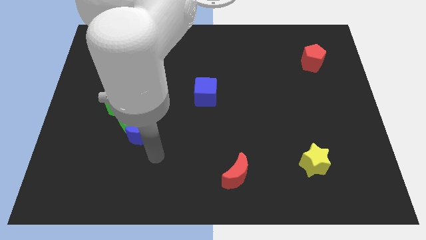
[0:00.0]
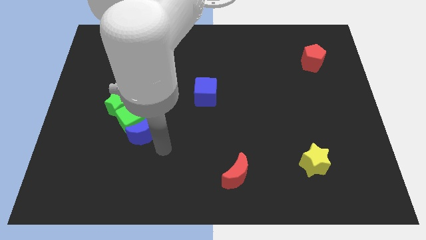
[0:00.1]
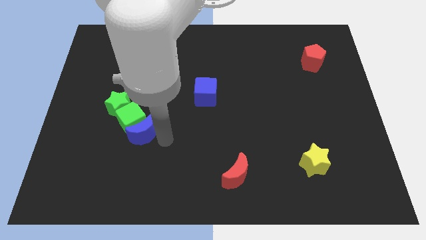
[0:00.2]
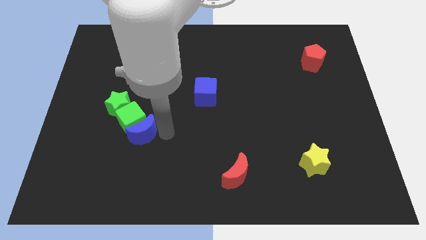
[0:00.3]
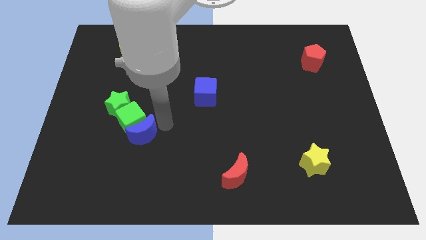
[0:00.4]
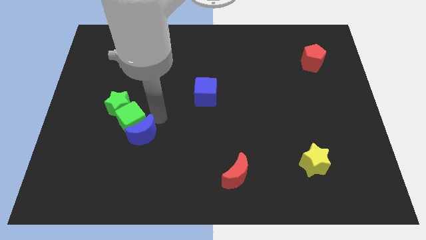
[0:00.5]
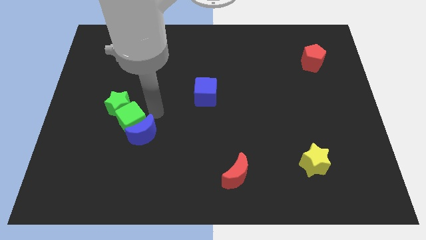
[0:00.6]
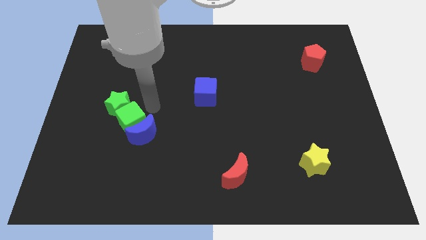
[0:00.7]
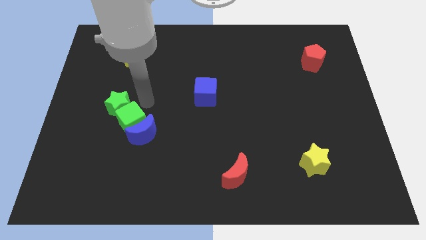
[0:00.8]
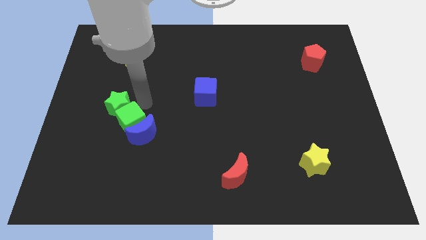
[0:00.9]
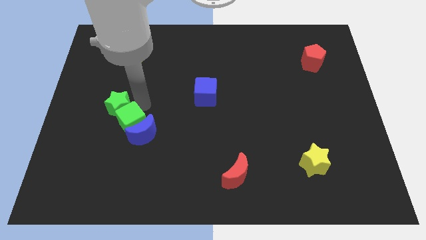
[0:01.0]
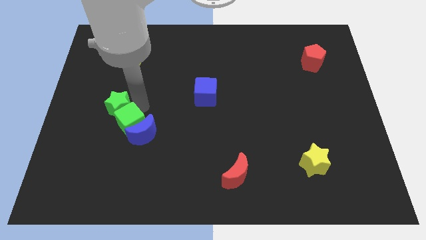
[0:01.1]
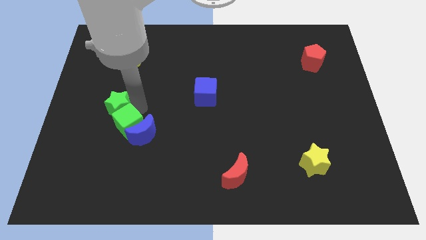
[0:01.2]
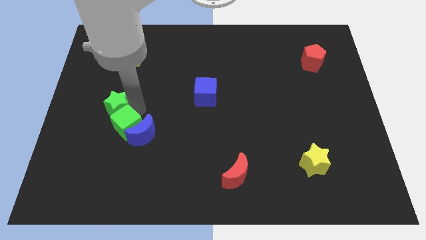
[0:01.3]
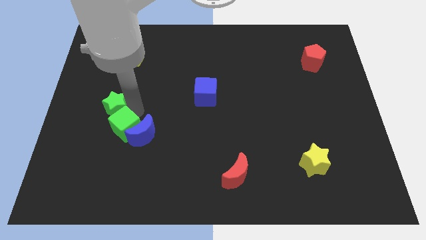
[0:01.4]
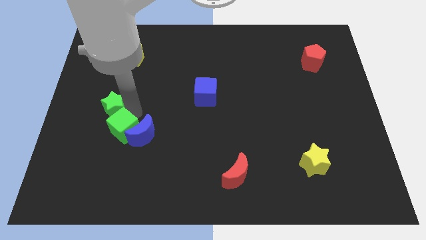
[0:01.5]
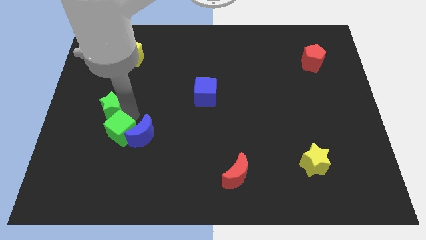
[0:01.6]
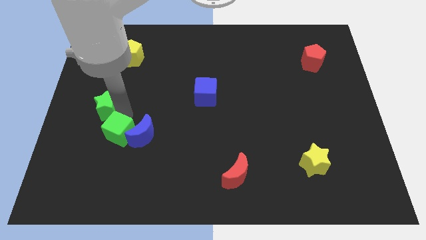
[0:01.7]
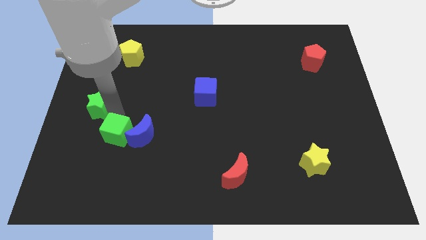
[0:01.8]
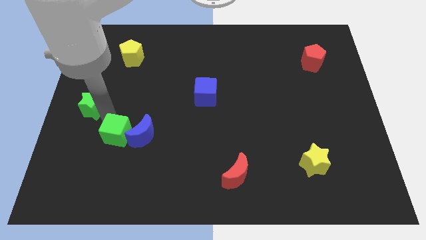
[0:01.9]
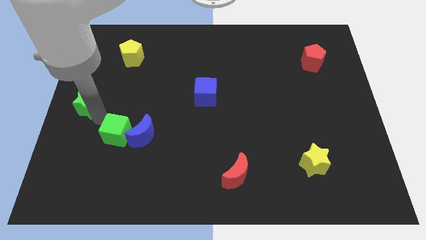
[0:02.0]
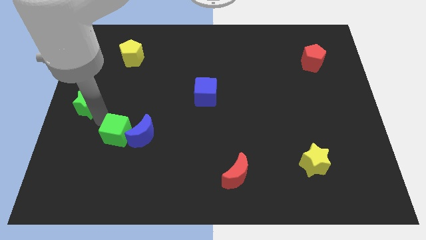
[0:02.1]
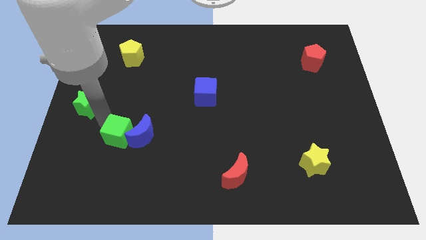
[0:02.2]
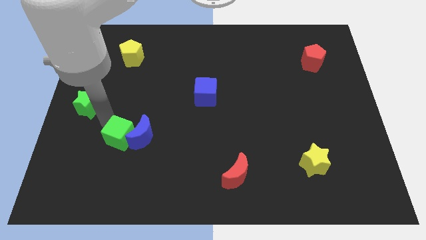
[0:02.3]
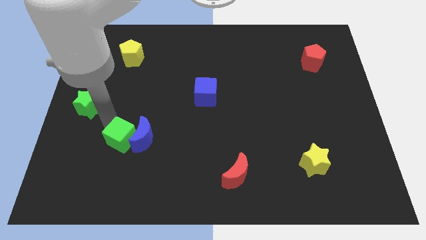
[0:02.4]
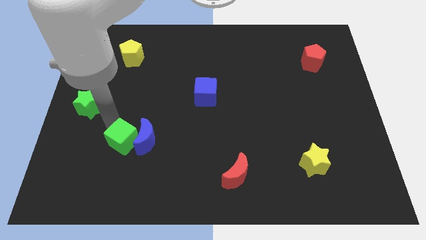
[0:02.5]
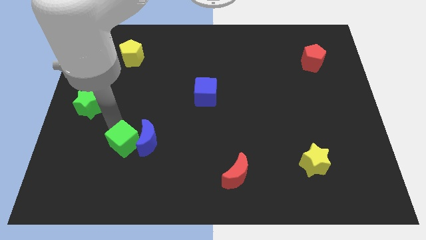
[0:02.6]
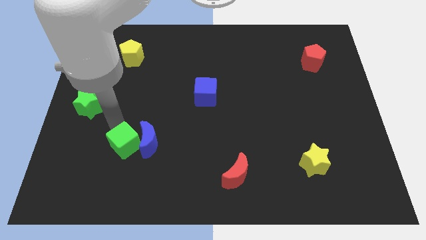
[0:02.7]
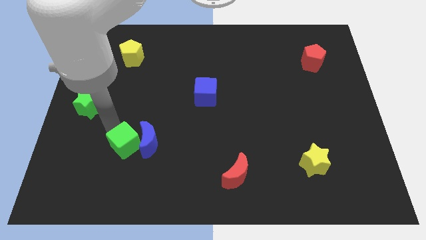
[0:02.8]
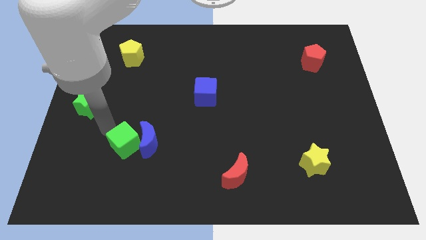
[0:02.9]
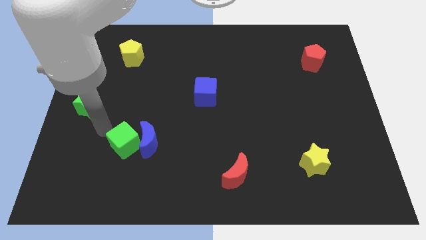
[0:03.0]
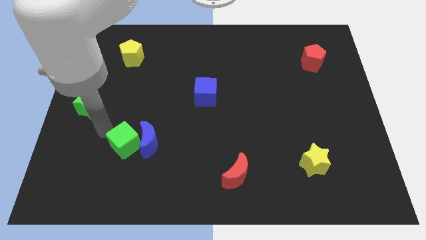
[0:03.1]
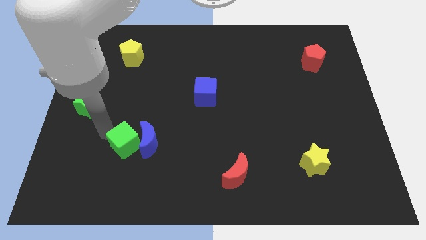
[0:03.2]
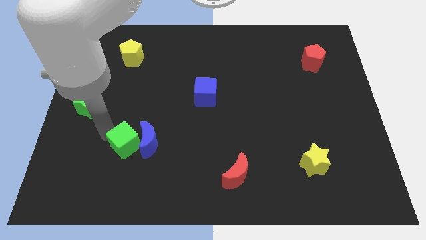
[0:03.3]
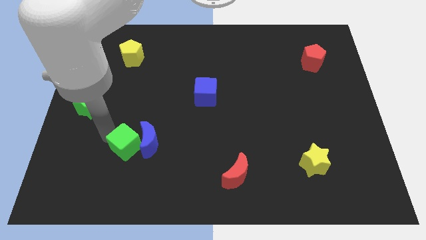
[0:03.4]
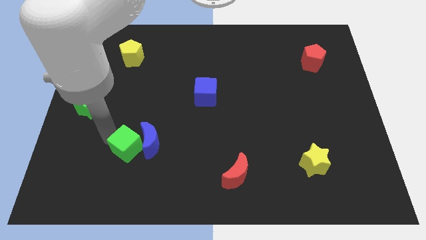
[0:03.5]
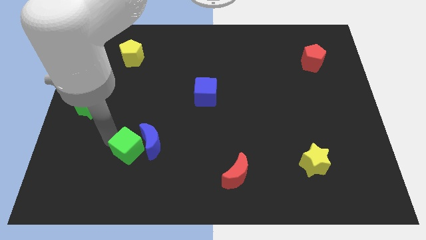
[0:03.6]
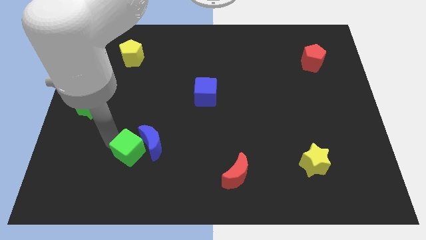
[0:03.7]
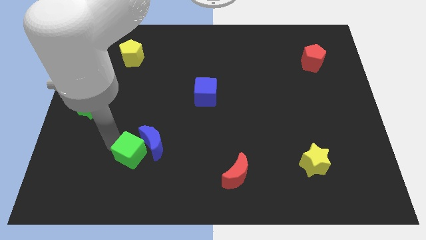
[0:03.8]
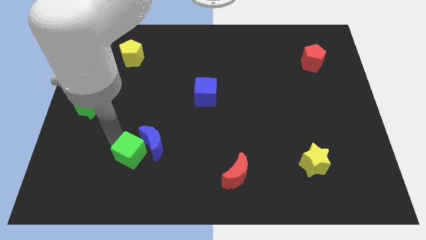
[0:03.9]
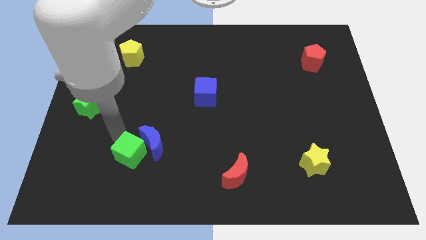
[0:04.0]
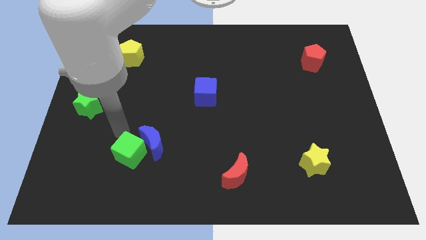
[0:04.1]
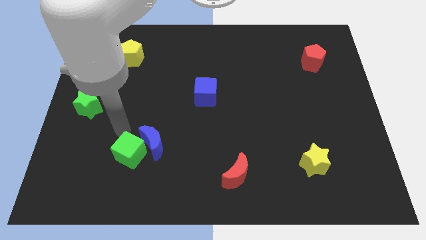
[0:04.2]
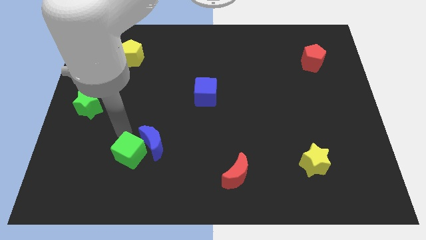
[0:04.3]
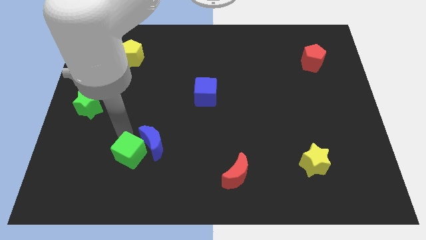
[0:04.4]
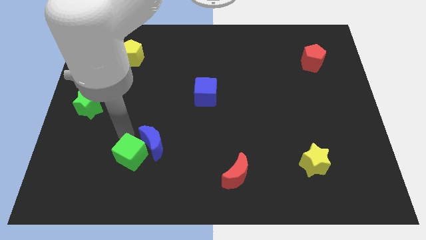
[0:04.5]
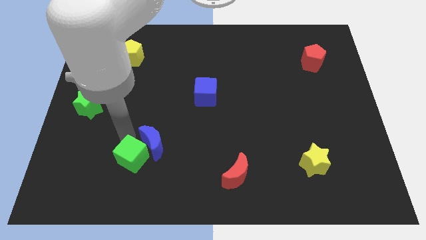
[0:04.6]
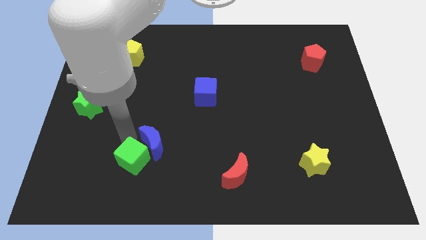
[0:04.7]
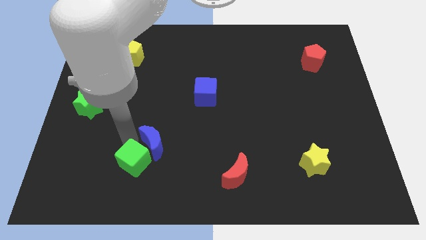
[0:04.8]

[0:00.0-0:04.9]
move the green cube away from the blue moon and green star

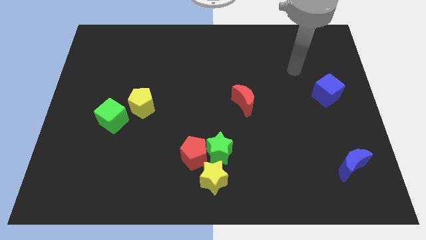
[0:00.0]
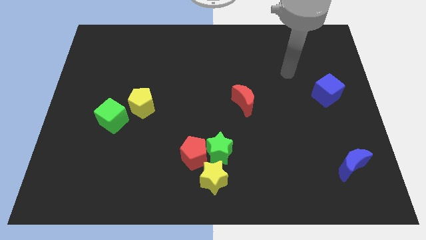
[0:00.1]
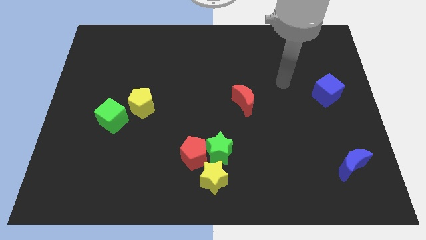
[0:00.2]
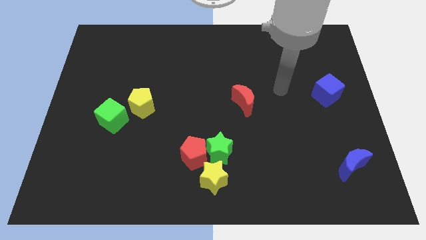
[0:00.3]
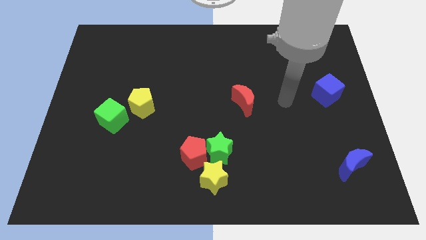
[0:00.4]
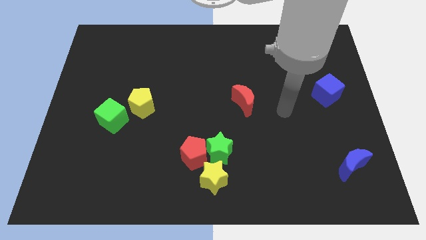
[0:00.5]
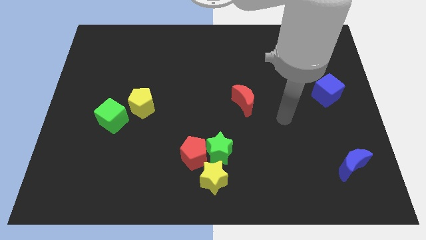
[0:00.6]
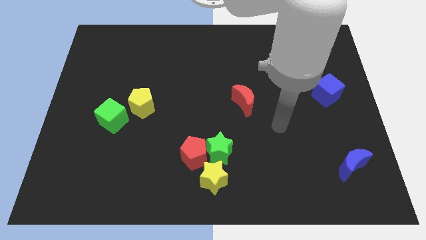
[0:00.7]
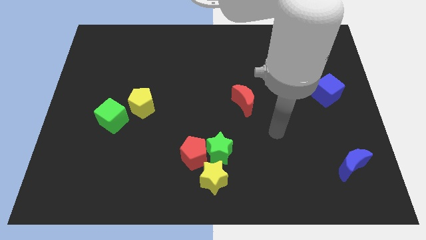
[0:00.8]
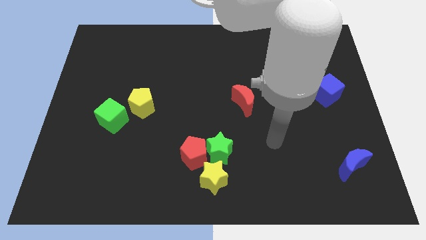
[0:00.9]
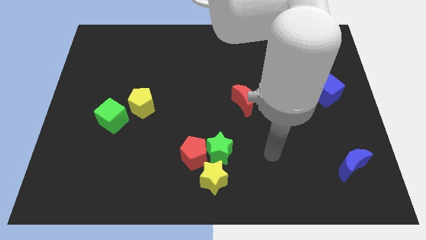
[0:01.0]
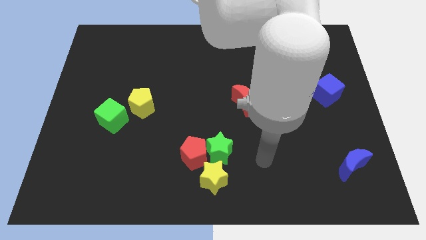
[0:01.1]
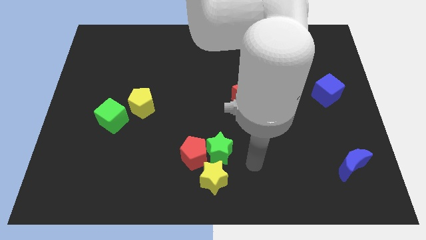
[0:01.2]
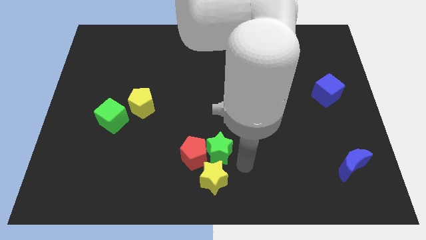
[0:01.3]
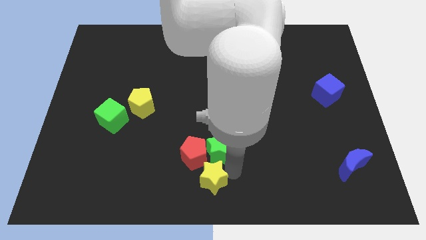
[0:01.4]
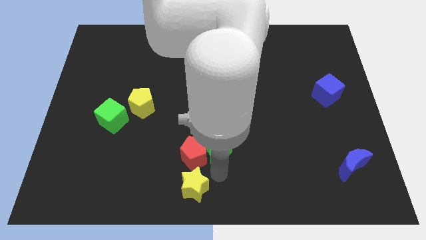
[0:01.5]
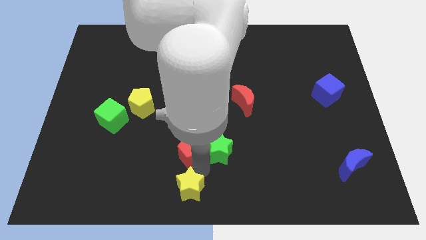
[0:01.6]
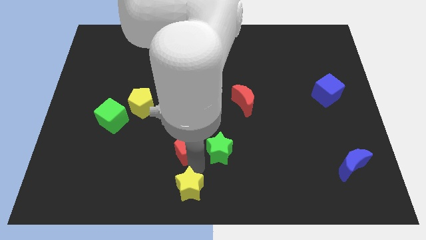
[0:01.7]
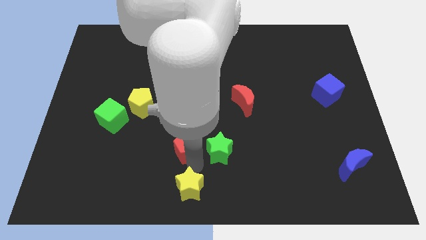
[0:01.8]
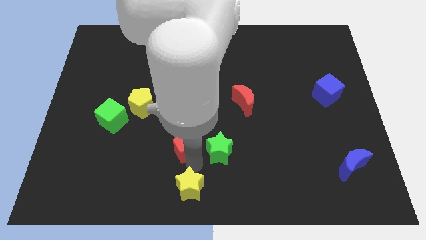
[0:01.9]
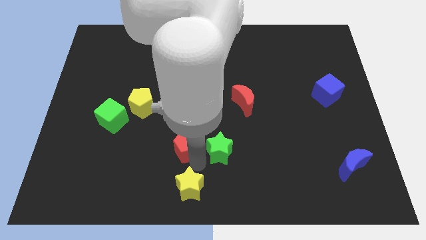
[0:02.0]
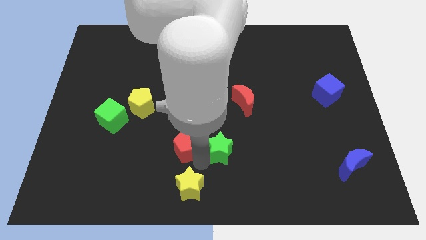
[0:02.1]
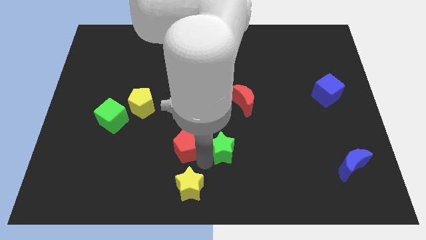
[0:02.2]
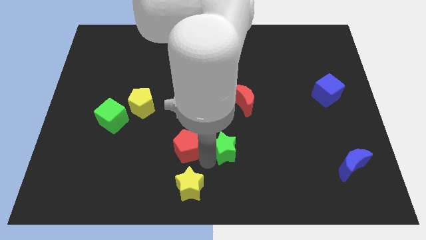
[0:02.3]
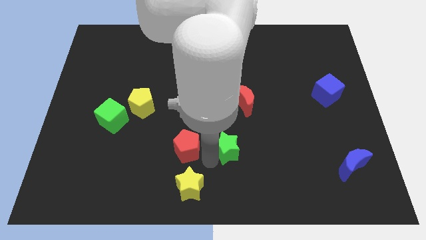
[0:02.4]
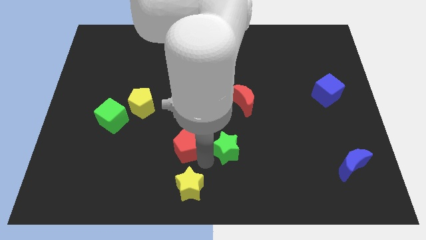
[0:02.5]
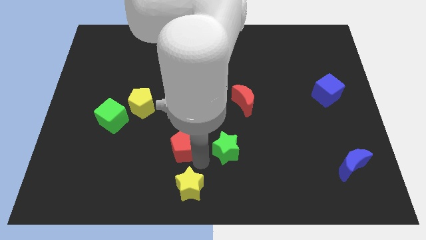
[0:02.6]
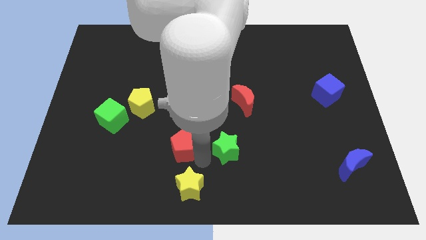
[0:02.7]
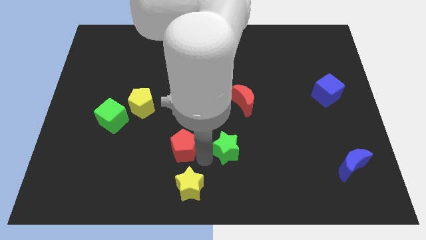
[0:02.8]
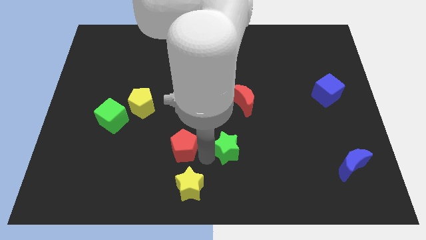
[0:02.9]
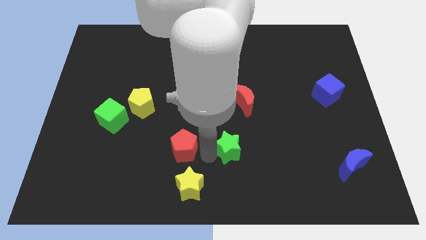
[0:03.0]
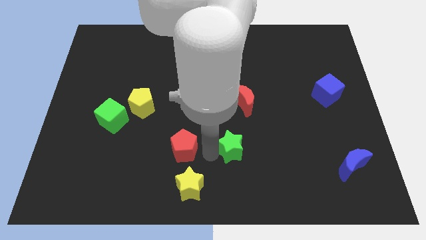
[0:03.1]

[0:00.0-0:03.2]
pull the green star apart from the red pentagon and yellow star

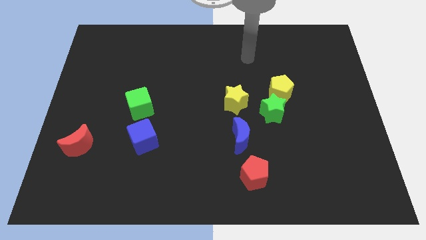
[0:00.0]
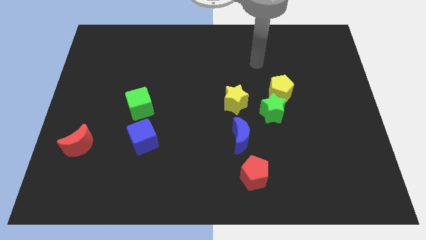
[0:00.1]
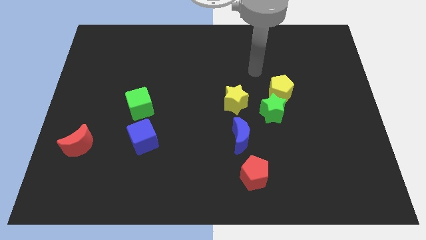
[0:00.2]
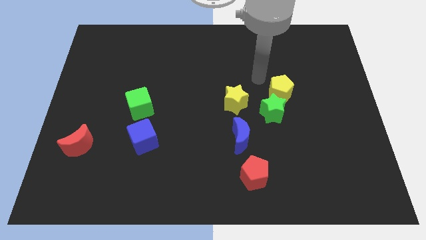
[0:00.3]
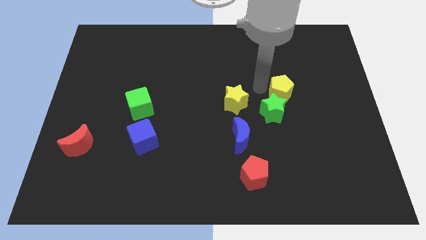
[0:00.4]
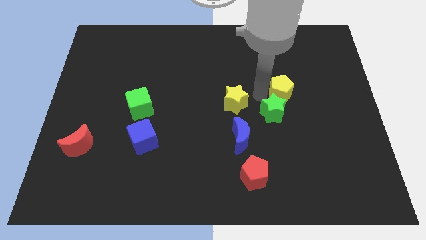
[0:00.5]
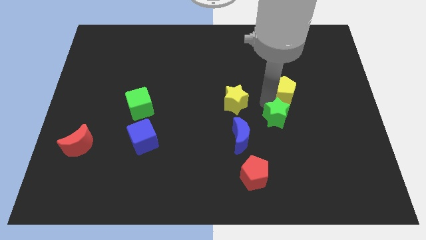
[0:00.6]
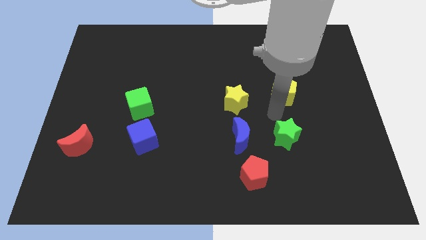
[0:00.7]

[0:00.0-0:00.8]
move the yellow pentagon away from the green star

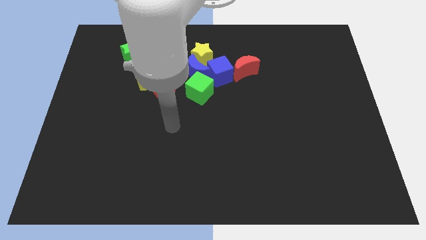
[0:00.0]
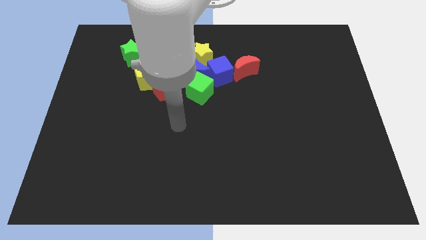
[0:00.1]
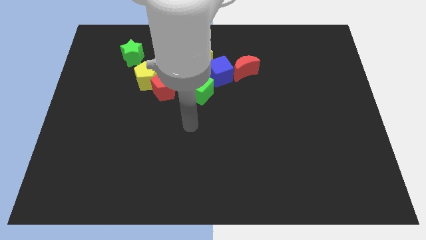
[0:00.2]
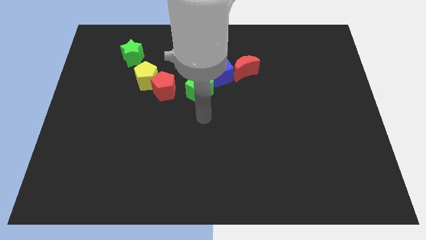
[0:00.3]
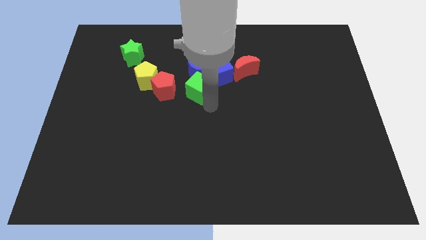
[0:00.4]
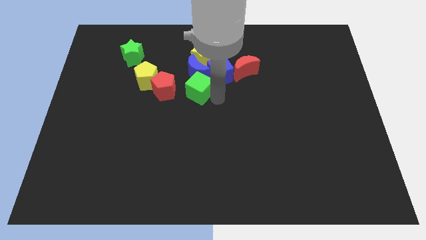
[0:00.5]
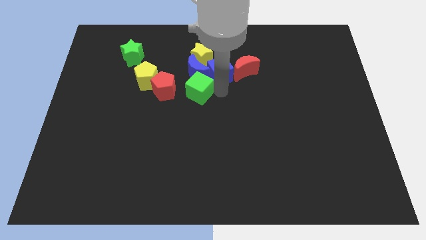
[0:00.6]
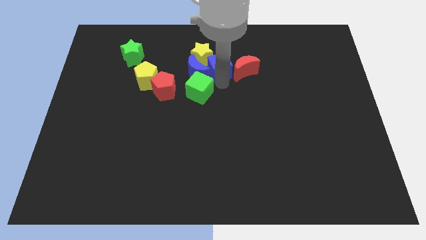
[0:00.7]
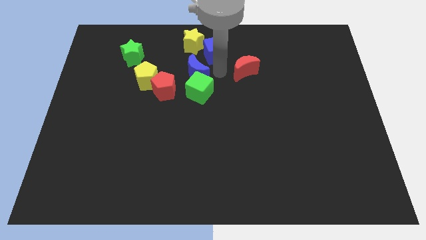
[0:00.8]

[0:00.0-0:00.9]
pull the red moon apart from the blue cube
